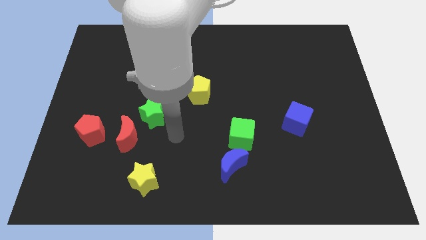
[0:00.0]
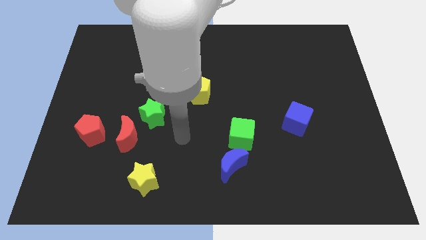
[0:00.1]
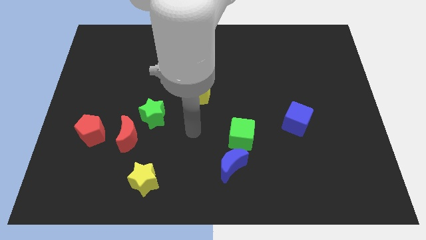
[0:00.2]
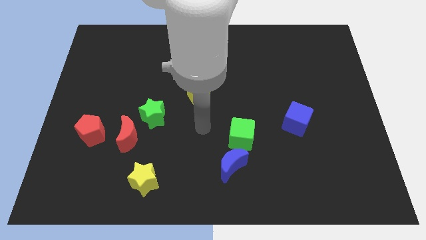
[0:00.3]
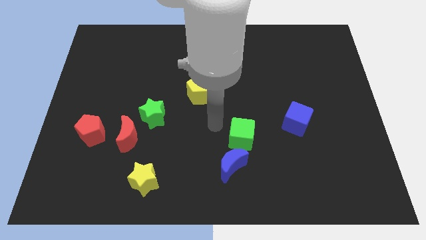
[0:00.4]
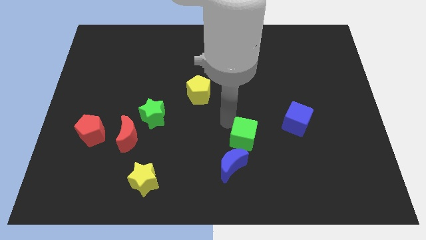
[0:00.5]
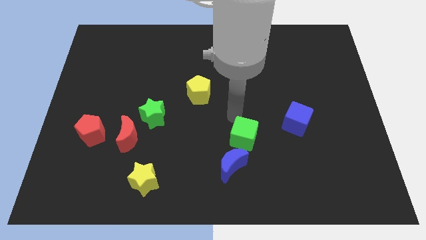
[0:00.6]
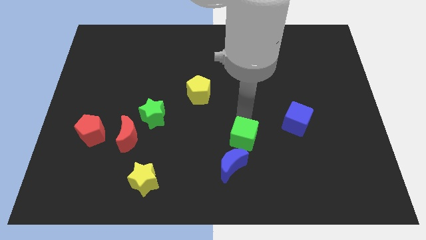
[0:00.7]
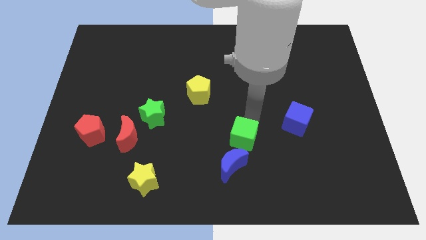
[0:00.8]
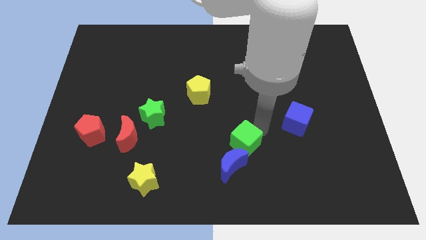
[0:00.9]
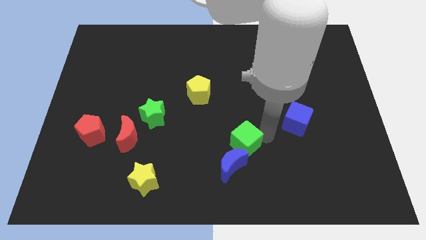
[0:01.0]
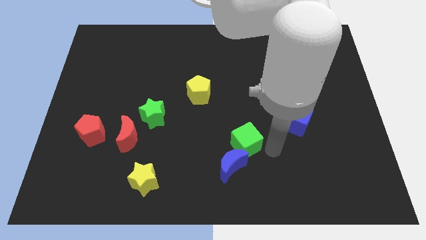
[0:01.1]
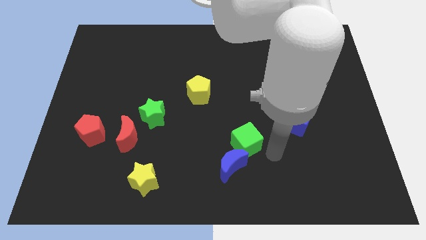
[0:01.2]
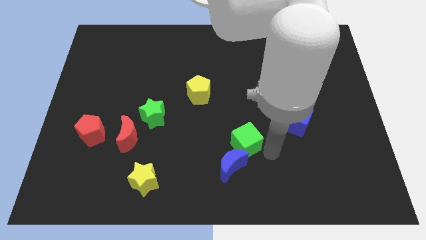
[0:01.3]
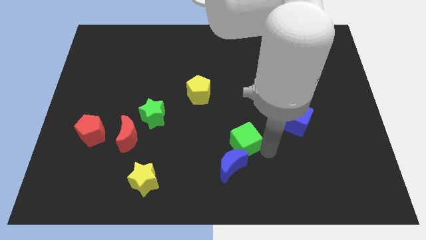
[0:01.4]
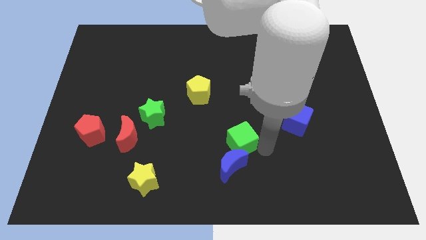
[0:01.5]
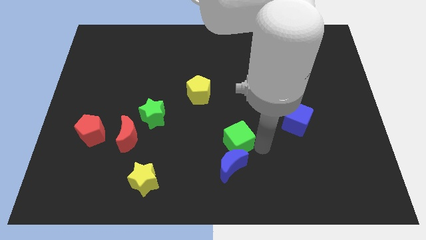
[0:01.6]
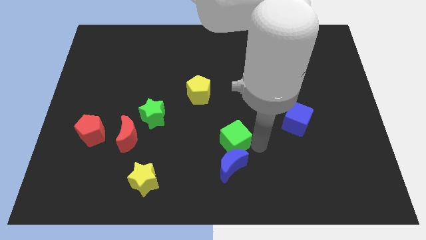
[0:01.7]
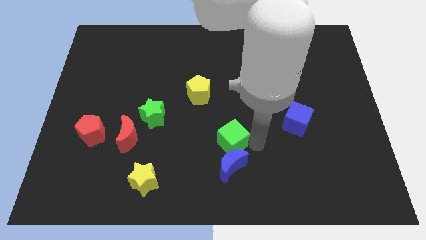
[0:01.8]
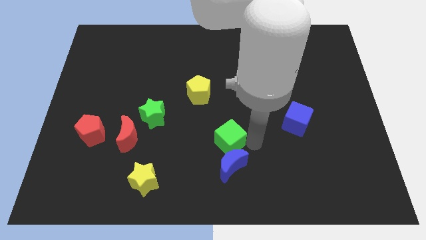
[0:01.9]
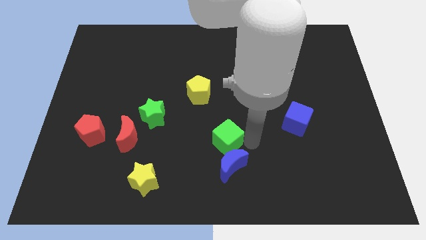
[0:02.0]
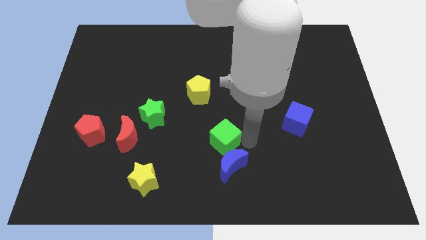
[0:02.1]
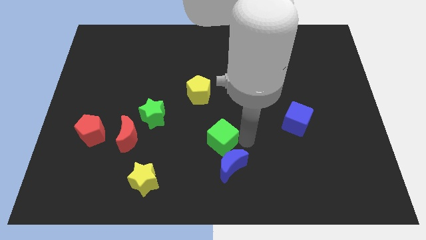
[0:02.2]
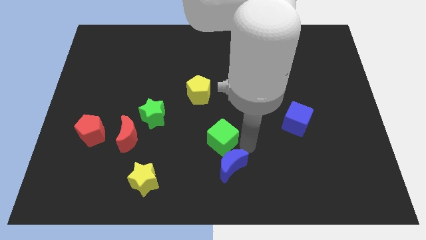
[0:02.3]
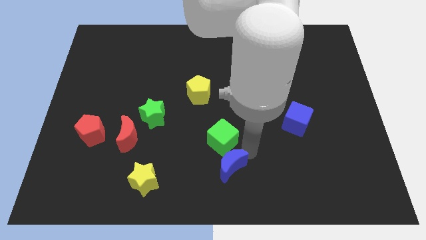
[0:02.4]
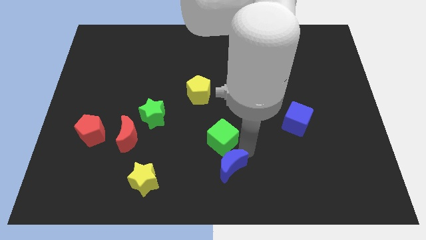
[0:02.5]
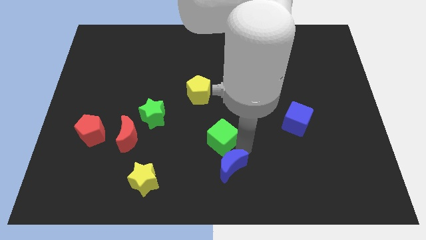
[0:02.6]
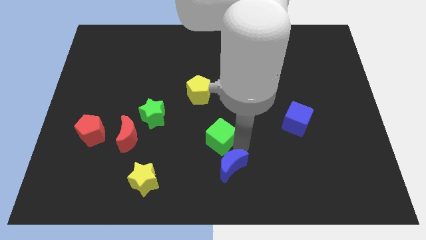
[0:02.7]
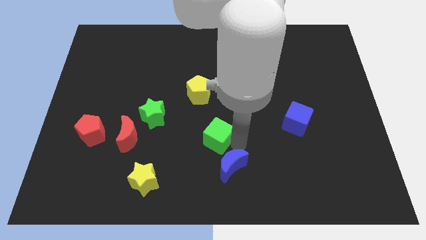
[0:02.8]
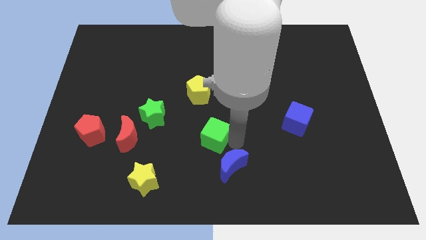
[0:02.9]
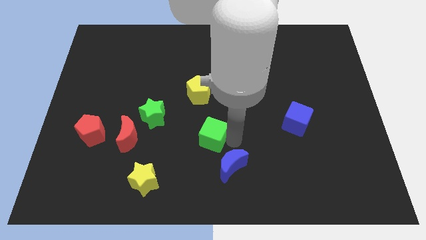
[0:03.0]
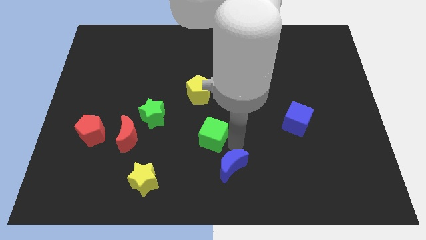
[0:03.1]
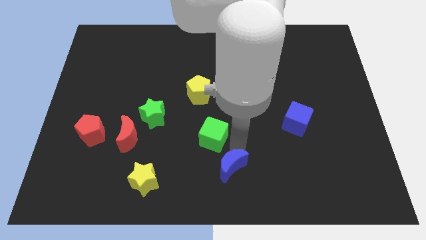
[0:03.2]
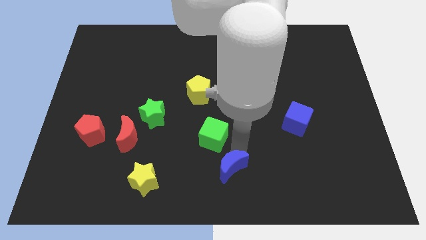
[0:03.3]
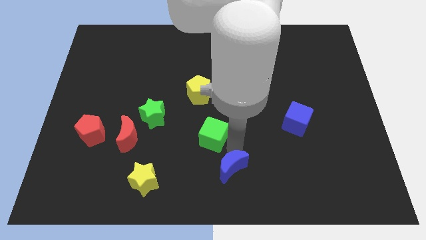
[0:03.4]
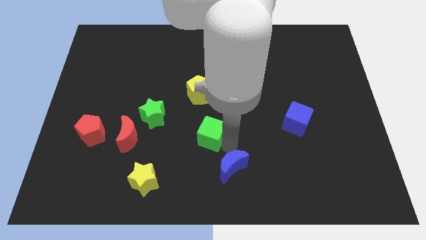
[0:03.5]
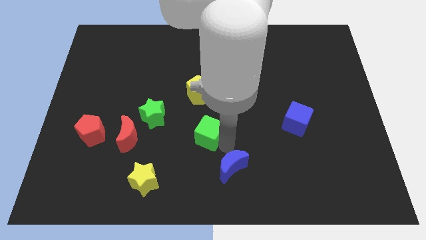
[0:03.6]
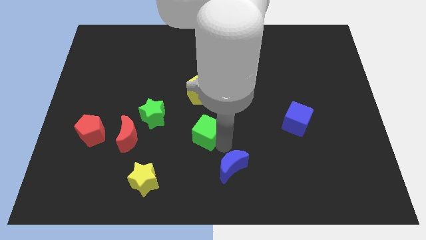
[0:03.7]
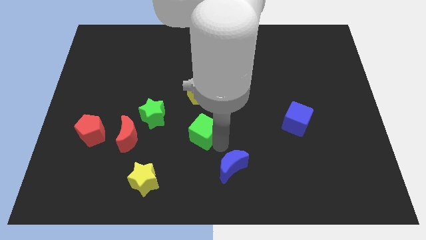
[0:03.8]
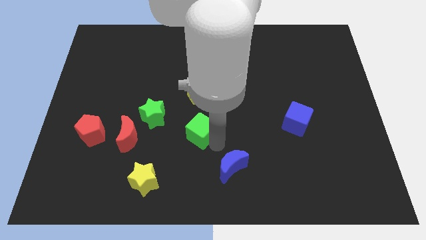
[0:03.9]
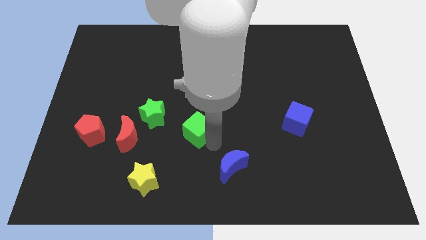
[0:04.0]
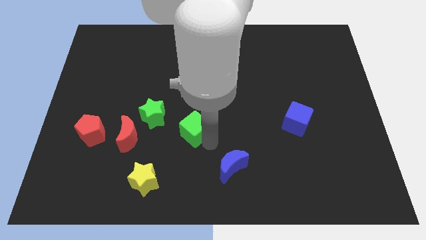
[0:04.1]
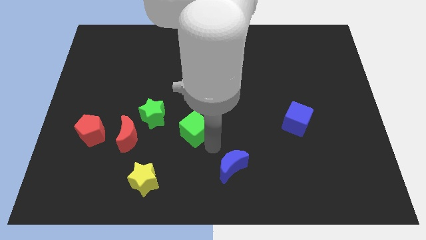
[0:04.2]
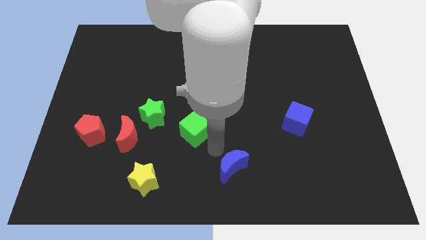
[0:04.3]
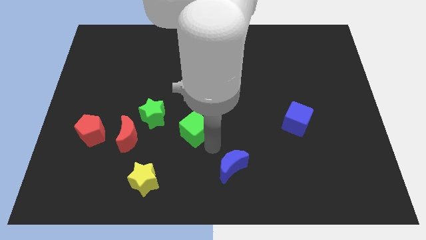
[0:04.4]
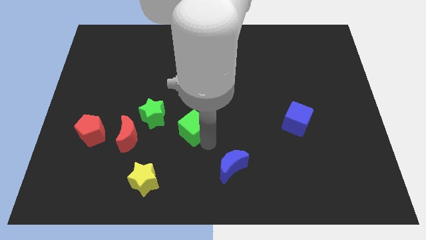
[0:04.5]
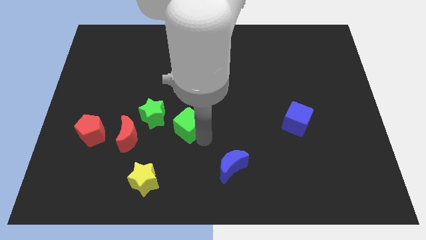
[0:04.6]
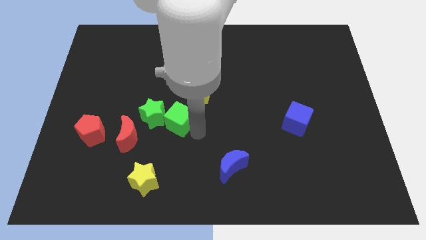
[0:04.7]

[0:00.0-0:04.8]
push the green cube to the green star

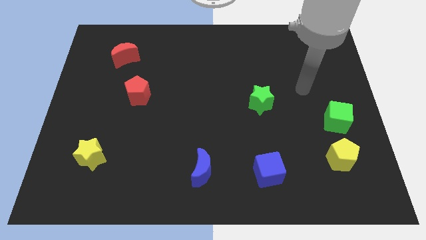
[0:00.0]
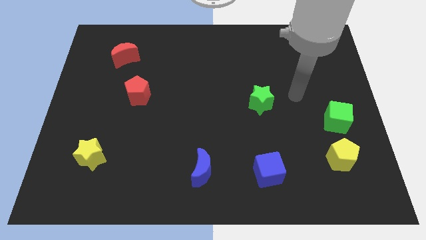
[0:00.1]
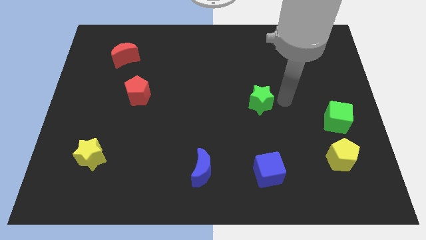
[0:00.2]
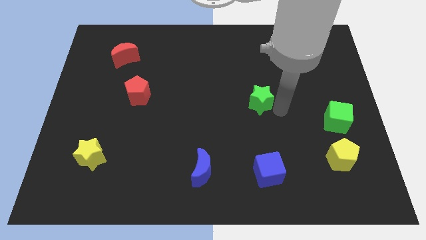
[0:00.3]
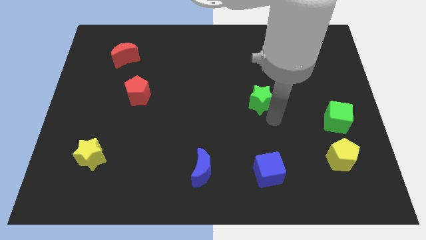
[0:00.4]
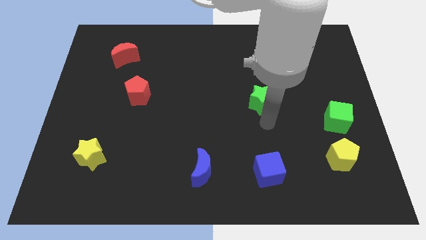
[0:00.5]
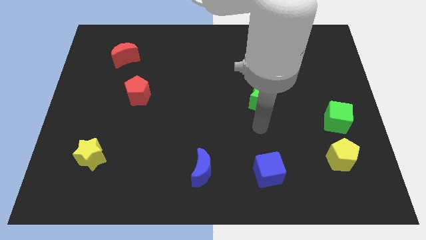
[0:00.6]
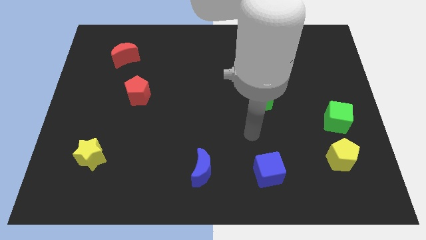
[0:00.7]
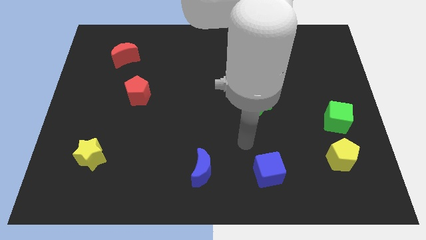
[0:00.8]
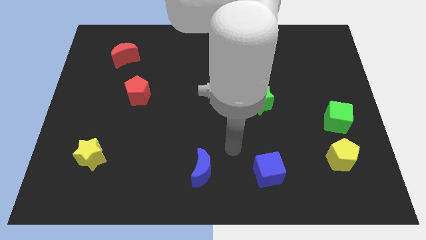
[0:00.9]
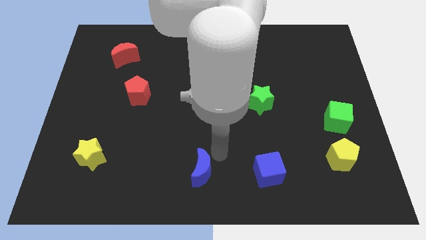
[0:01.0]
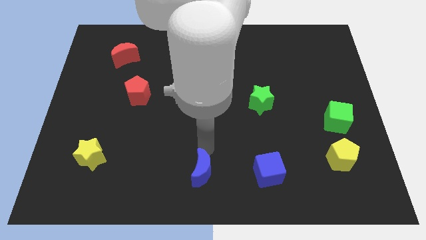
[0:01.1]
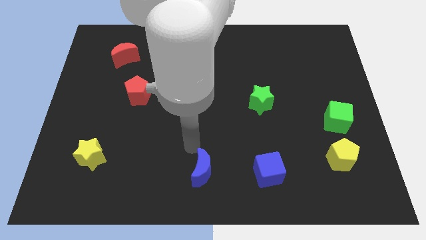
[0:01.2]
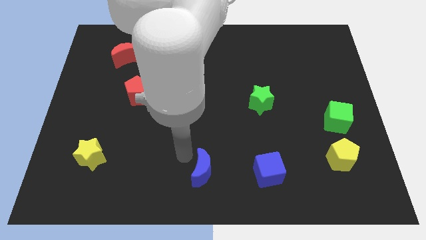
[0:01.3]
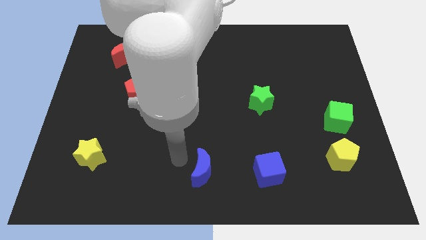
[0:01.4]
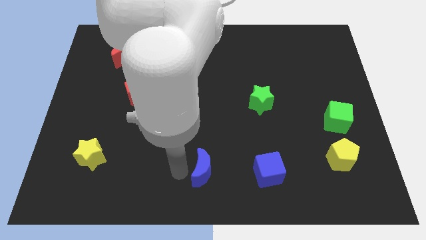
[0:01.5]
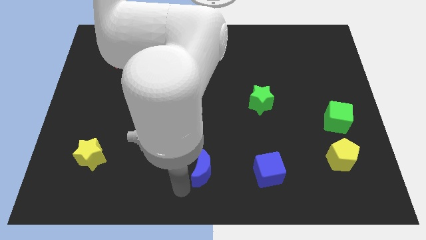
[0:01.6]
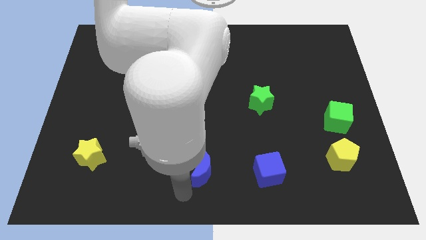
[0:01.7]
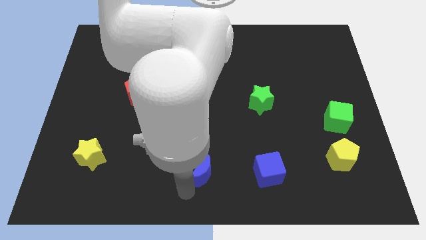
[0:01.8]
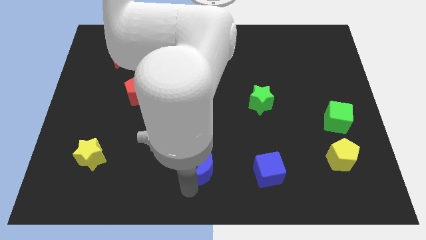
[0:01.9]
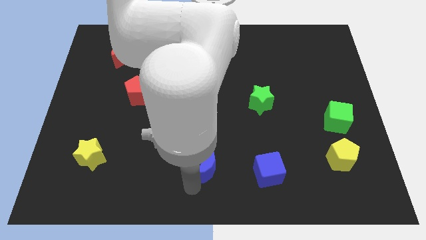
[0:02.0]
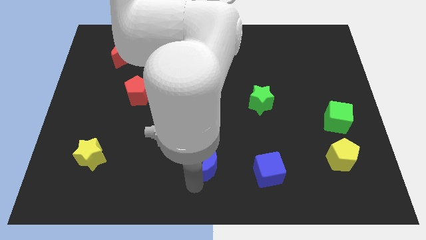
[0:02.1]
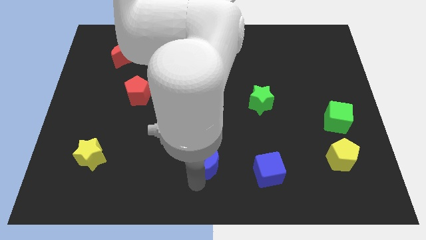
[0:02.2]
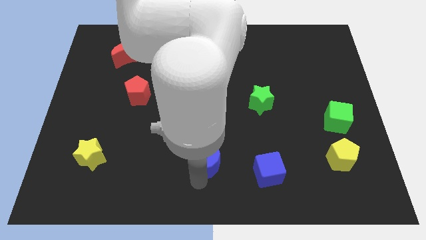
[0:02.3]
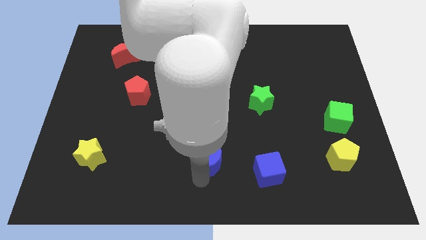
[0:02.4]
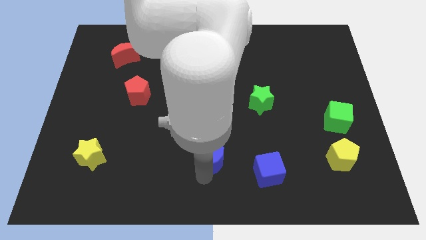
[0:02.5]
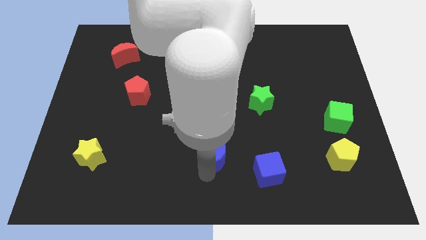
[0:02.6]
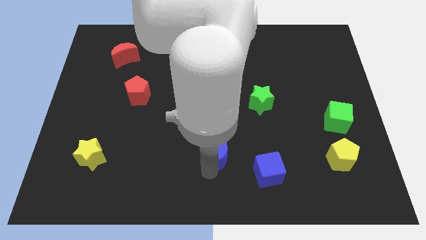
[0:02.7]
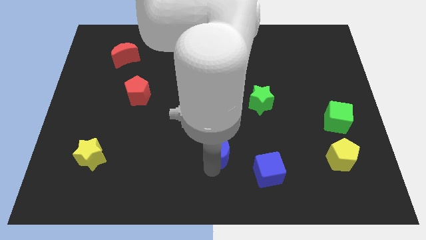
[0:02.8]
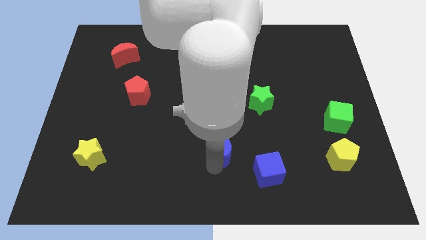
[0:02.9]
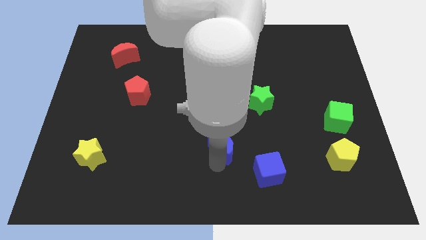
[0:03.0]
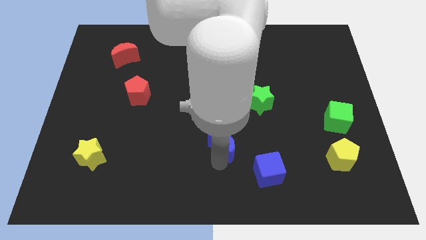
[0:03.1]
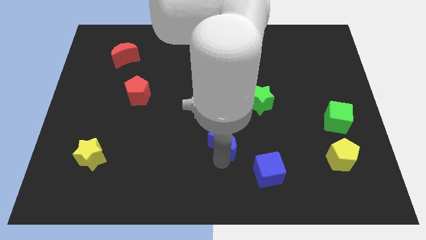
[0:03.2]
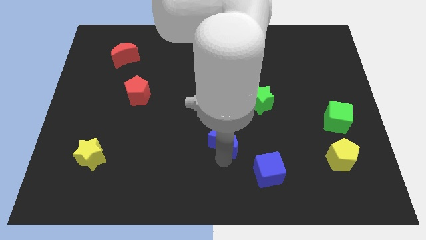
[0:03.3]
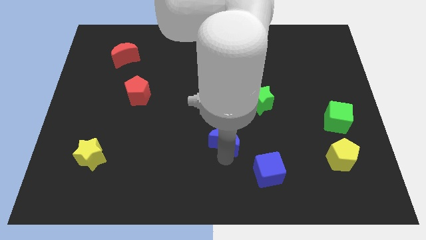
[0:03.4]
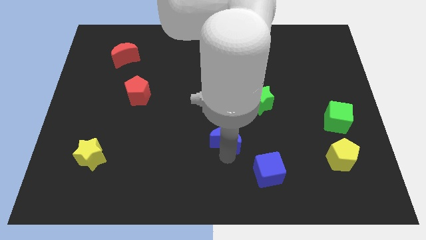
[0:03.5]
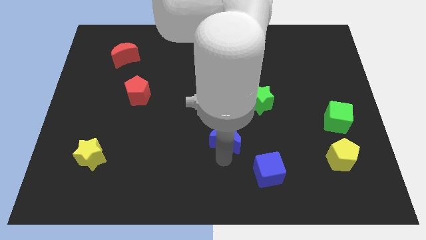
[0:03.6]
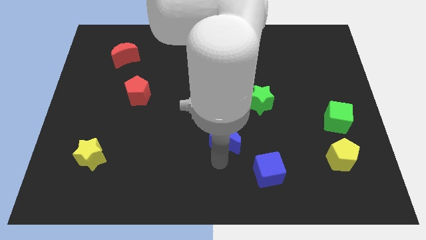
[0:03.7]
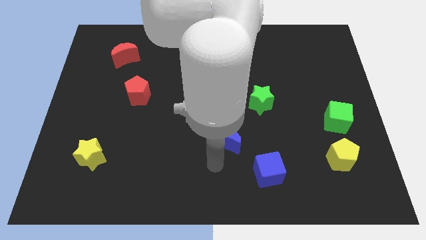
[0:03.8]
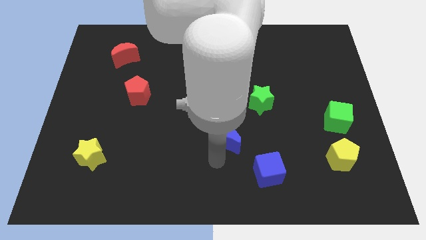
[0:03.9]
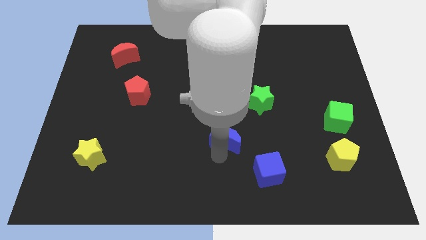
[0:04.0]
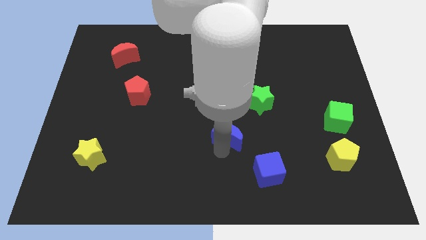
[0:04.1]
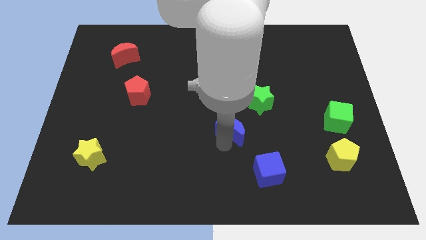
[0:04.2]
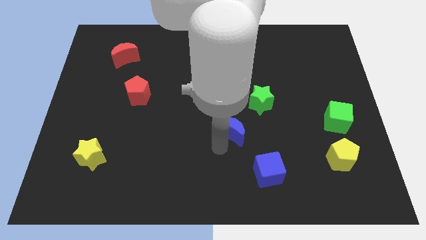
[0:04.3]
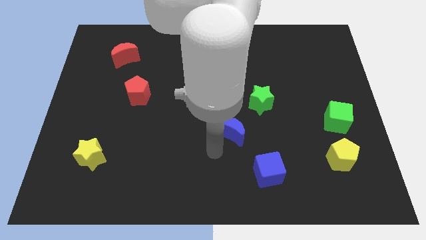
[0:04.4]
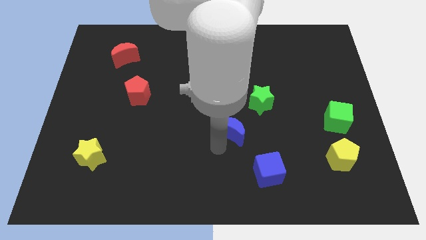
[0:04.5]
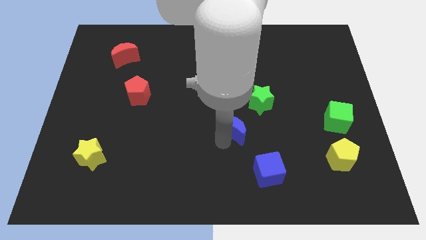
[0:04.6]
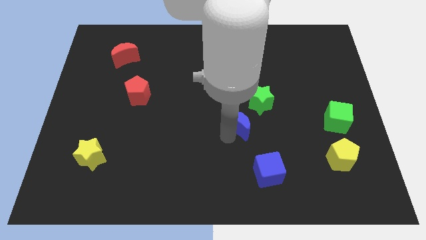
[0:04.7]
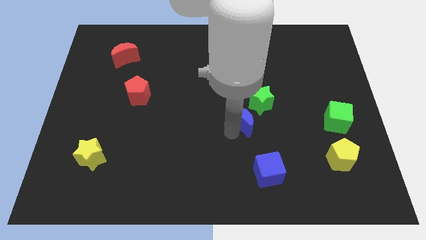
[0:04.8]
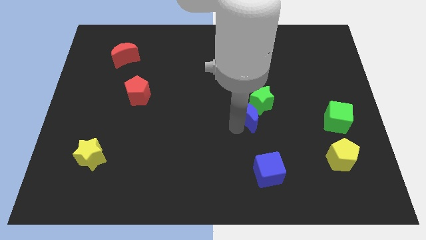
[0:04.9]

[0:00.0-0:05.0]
move the blue moon next to the green star
